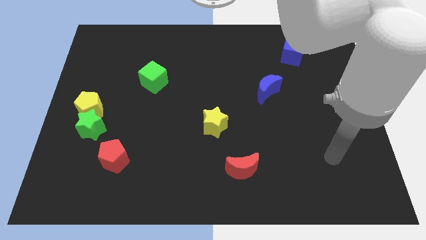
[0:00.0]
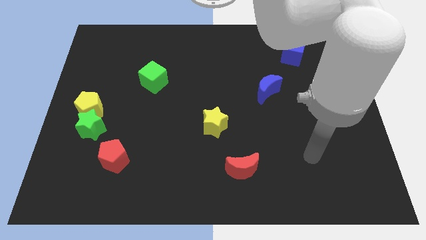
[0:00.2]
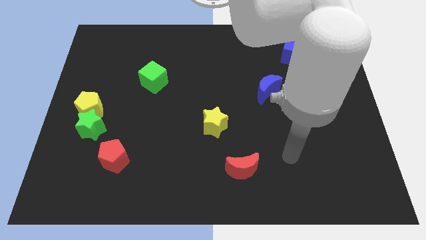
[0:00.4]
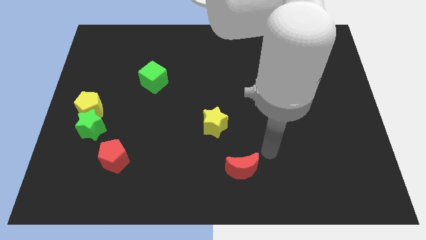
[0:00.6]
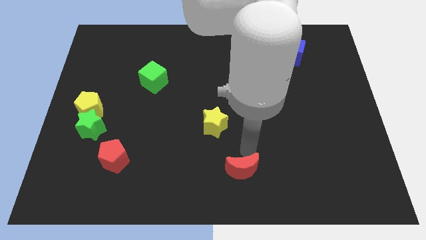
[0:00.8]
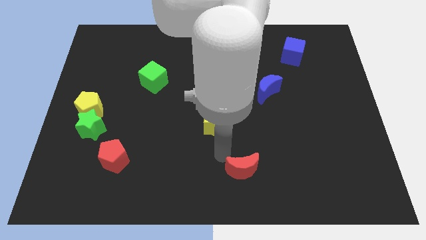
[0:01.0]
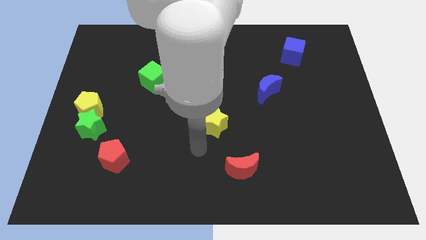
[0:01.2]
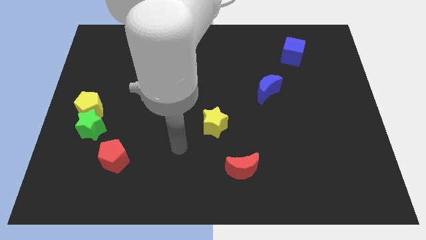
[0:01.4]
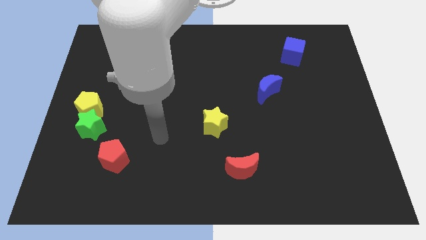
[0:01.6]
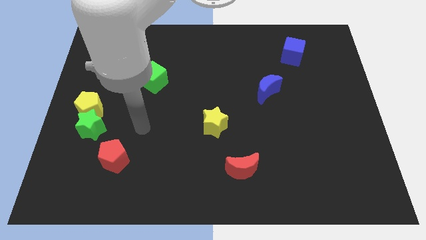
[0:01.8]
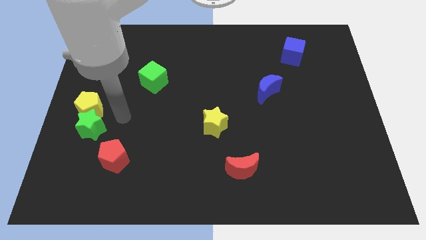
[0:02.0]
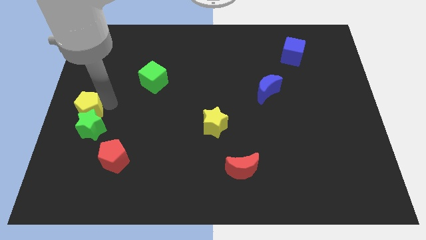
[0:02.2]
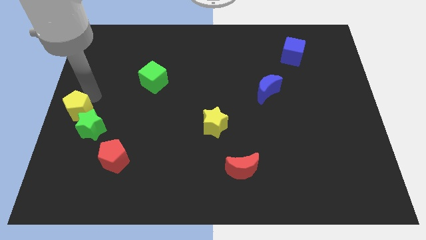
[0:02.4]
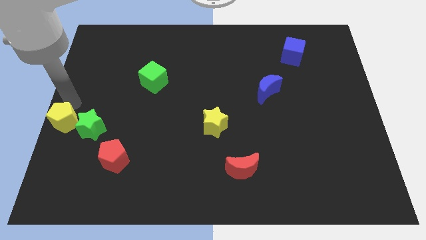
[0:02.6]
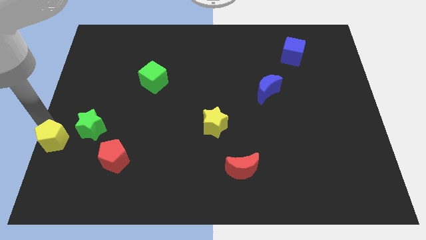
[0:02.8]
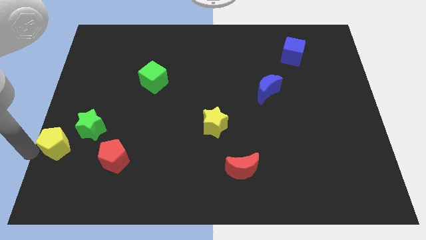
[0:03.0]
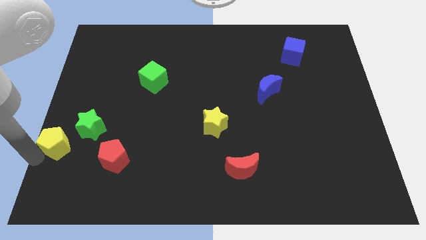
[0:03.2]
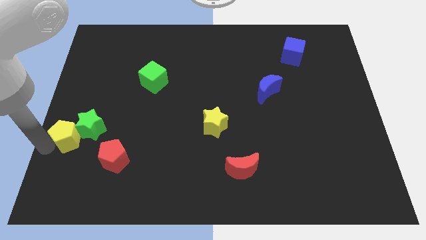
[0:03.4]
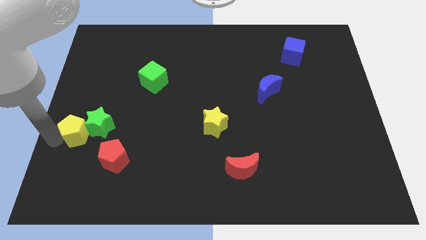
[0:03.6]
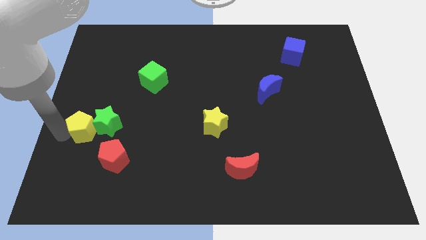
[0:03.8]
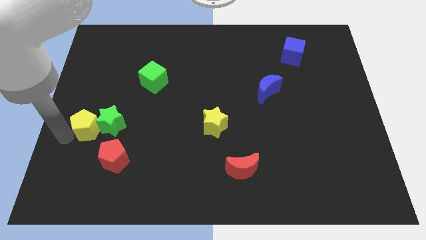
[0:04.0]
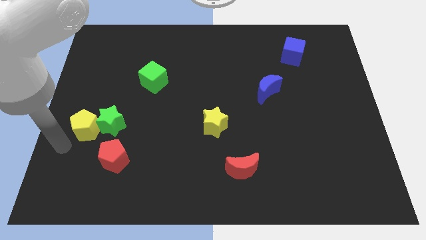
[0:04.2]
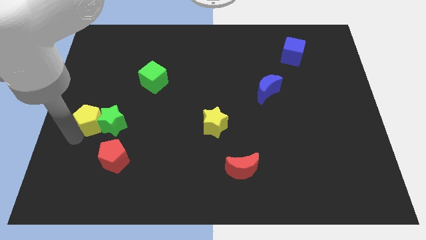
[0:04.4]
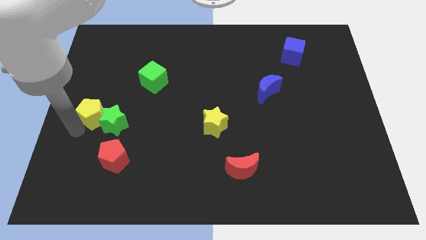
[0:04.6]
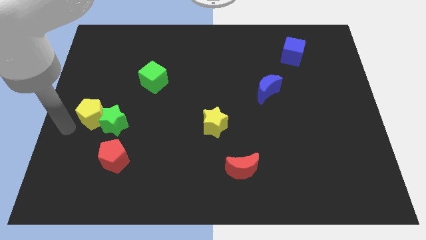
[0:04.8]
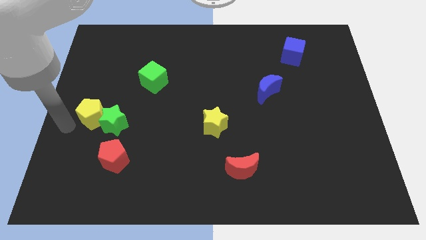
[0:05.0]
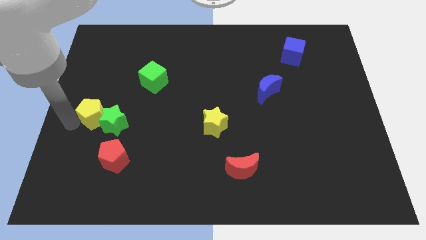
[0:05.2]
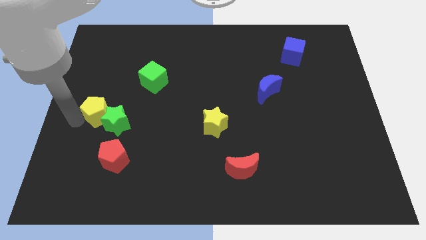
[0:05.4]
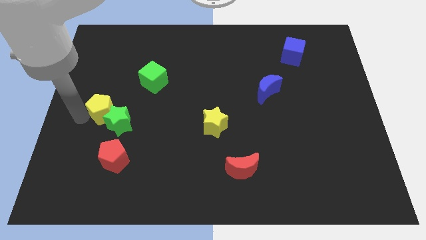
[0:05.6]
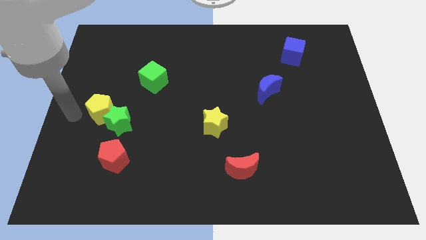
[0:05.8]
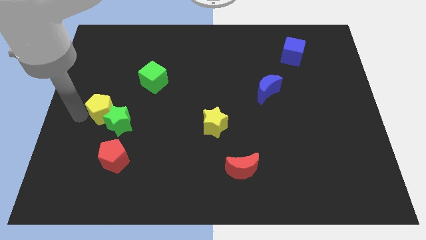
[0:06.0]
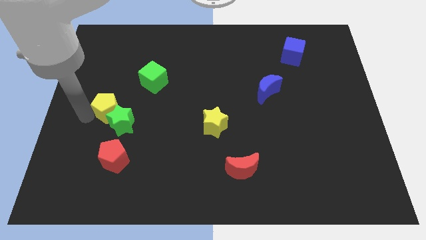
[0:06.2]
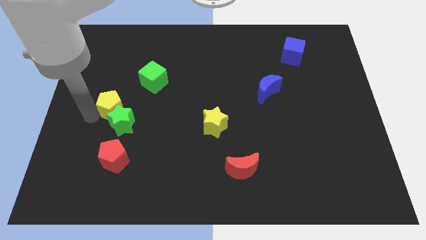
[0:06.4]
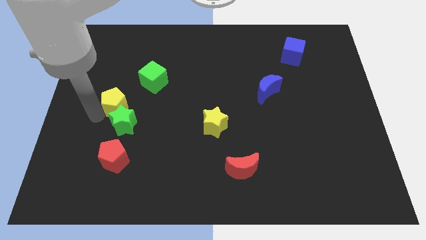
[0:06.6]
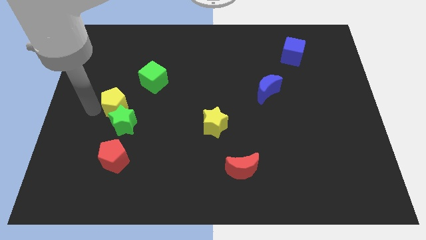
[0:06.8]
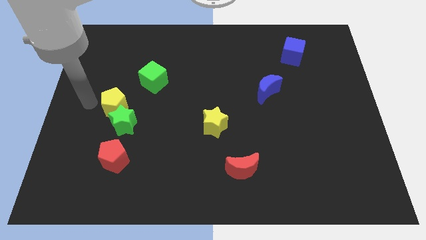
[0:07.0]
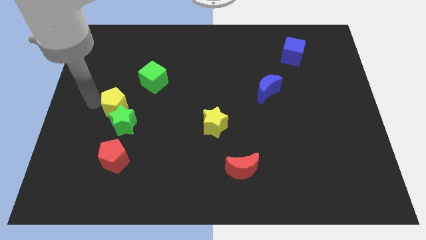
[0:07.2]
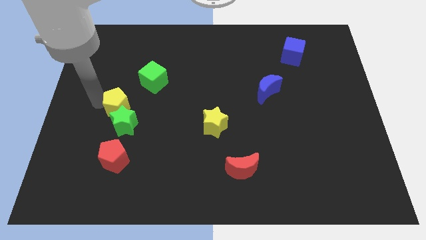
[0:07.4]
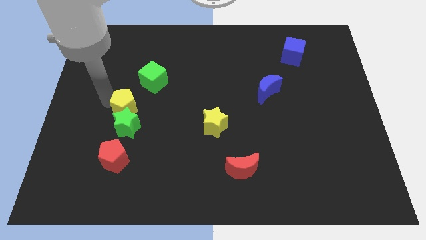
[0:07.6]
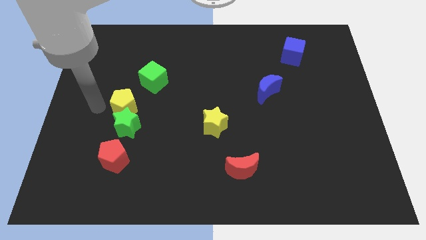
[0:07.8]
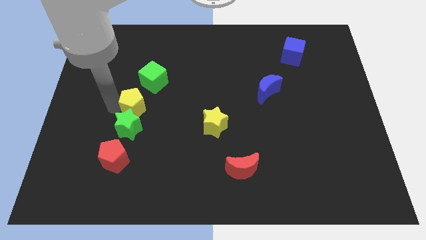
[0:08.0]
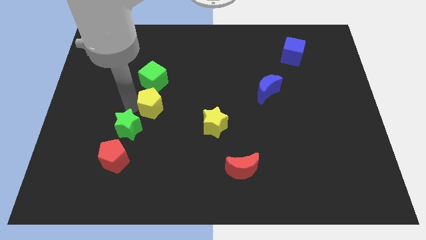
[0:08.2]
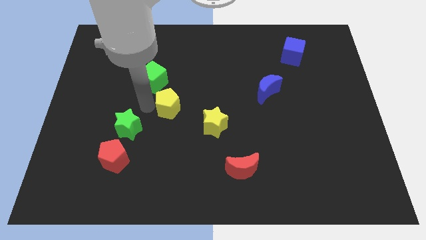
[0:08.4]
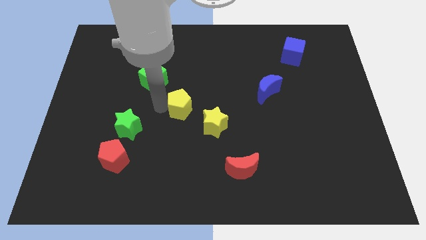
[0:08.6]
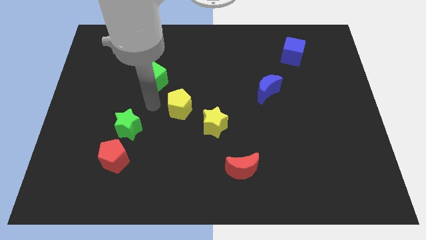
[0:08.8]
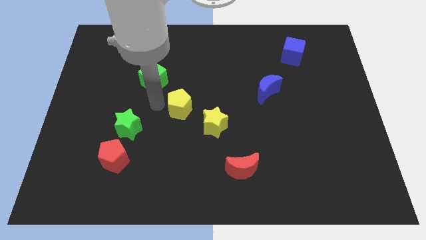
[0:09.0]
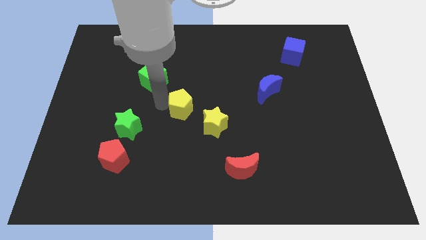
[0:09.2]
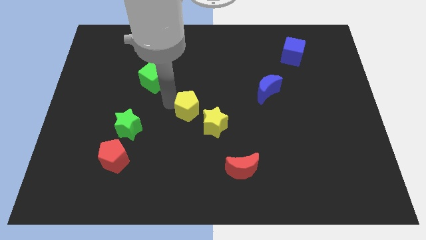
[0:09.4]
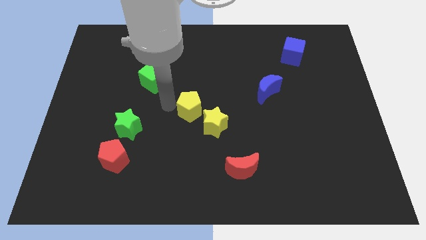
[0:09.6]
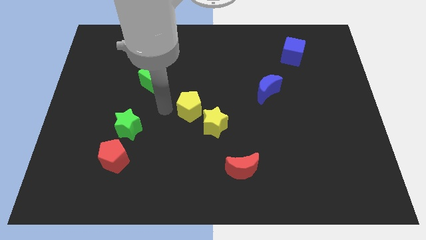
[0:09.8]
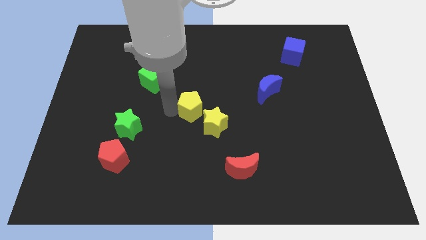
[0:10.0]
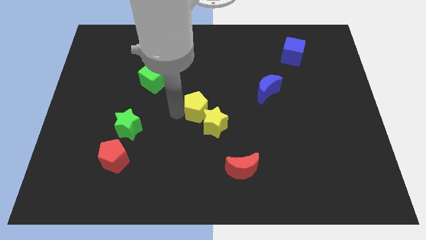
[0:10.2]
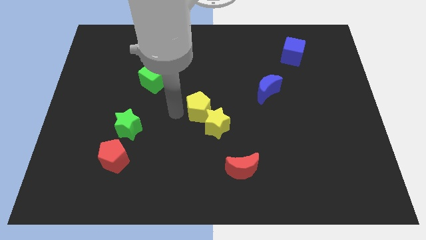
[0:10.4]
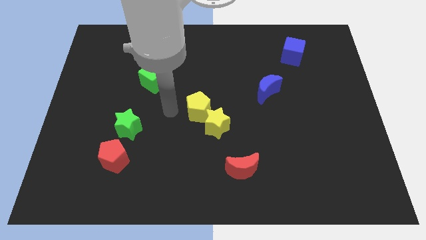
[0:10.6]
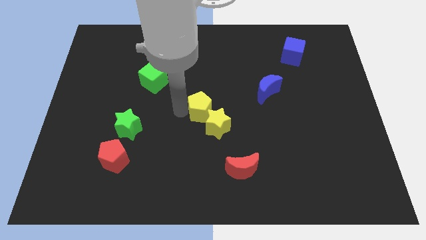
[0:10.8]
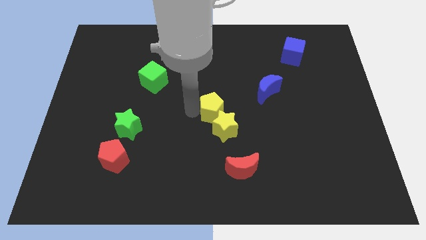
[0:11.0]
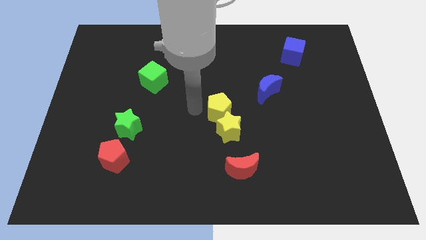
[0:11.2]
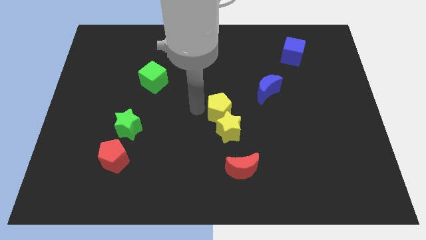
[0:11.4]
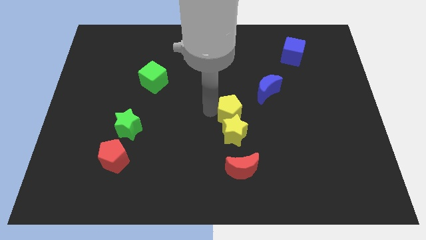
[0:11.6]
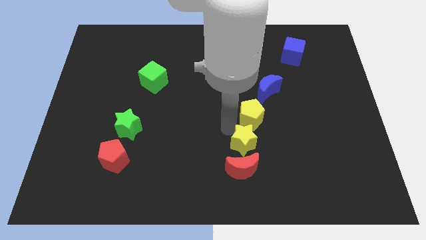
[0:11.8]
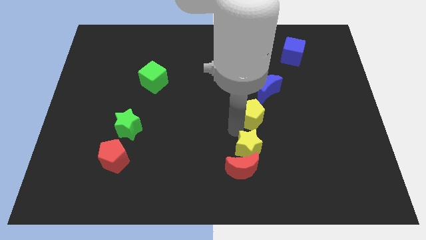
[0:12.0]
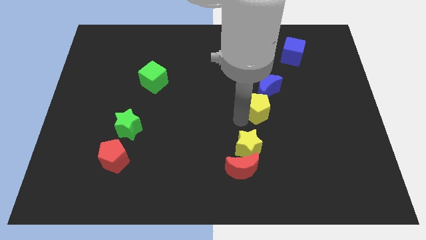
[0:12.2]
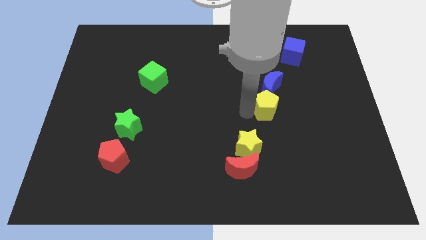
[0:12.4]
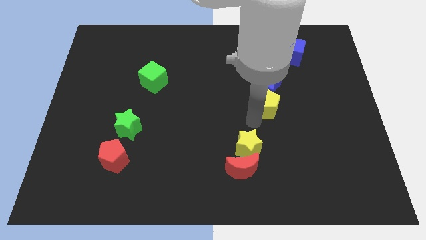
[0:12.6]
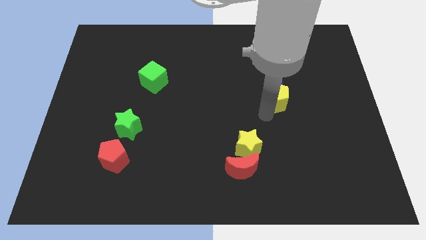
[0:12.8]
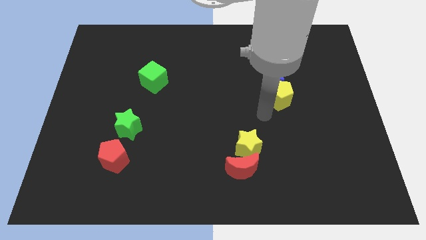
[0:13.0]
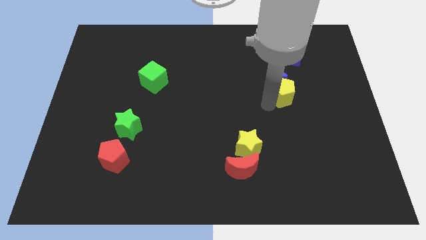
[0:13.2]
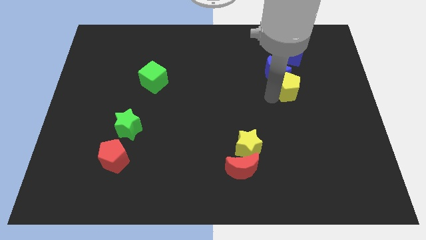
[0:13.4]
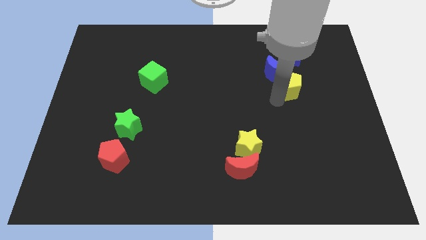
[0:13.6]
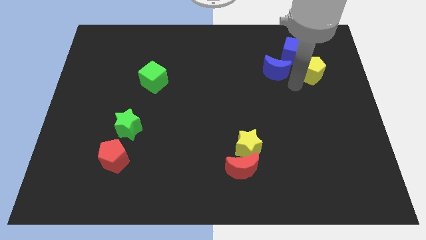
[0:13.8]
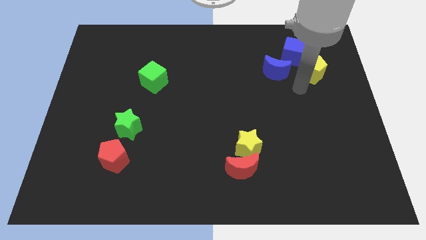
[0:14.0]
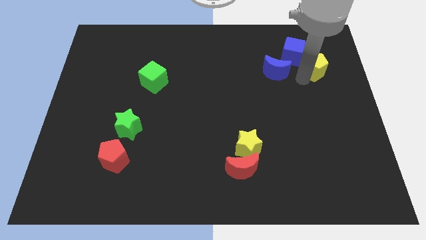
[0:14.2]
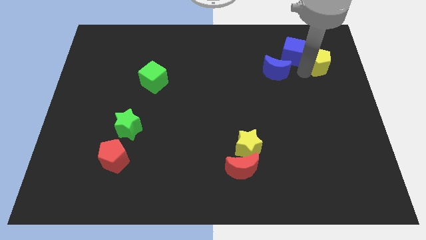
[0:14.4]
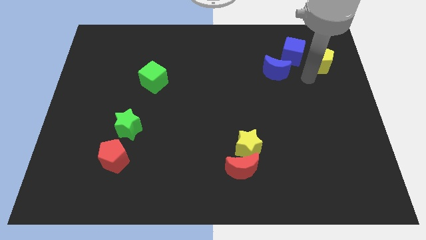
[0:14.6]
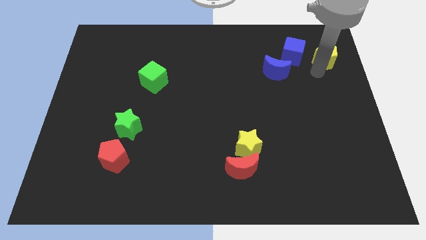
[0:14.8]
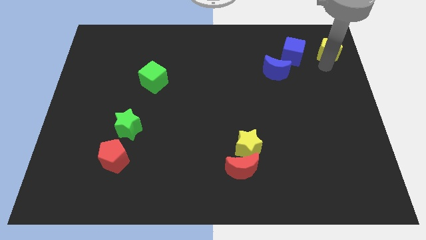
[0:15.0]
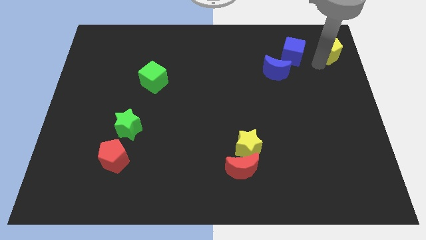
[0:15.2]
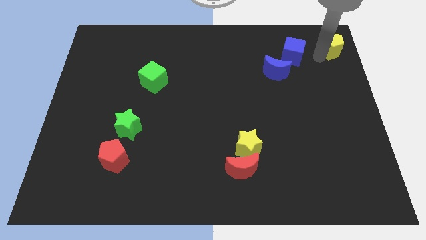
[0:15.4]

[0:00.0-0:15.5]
push the yellow pentagon to the top right of the board
